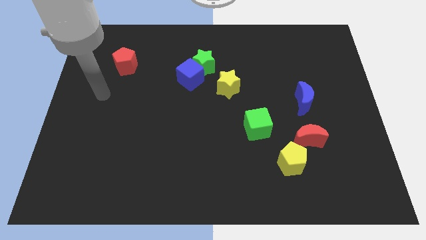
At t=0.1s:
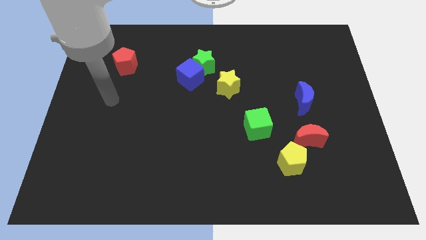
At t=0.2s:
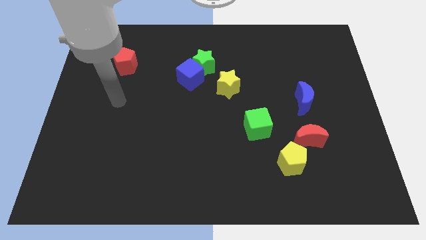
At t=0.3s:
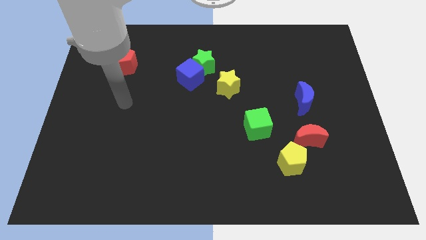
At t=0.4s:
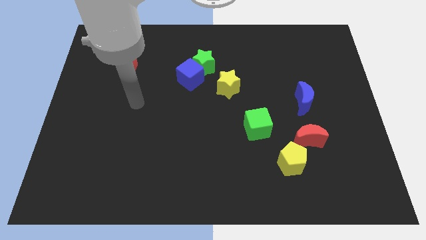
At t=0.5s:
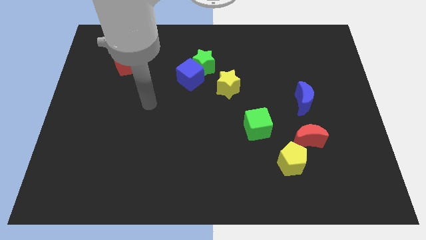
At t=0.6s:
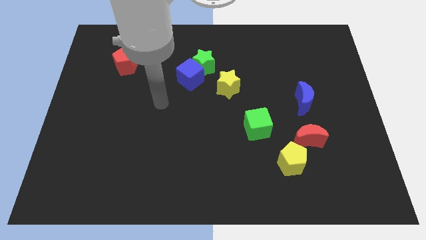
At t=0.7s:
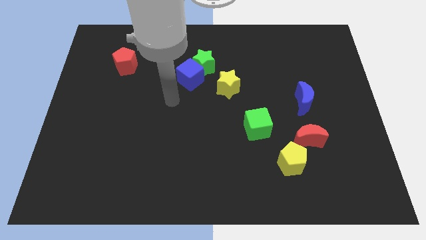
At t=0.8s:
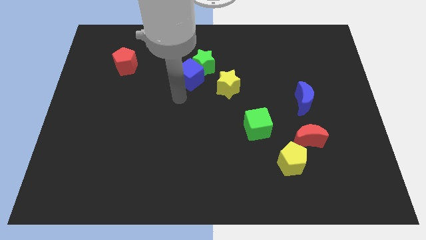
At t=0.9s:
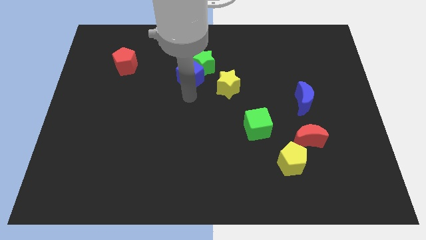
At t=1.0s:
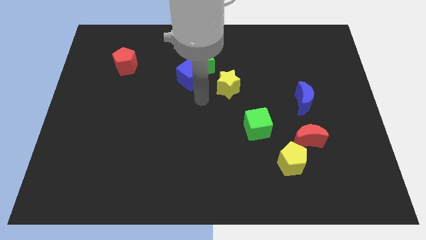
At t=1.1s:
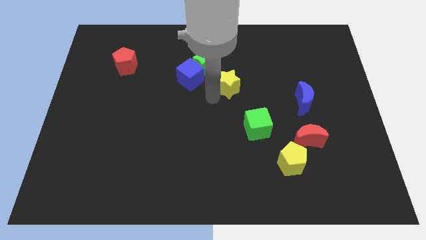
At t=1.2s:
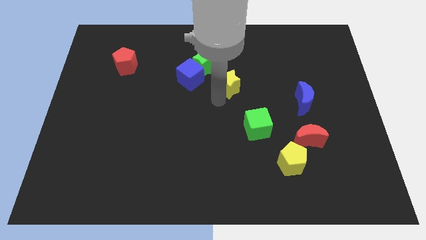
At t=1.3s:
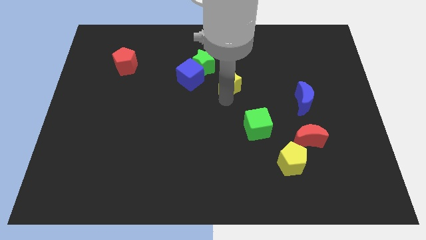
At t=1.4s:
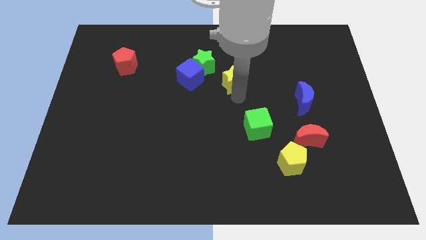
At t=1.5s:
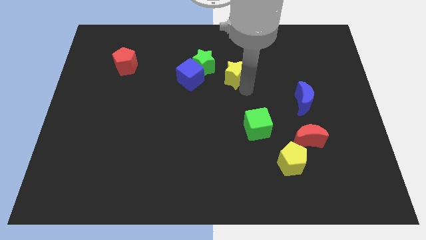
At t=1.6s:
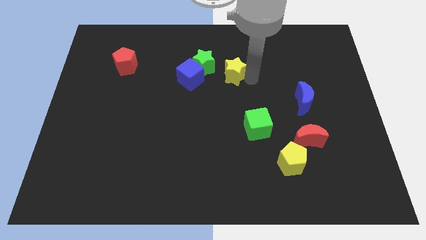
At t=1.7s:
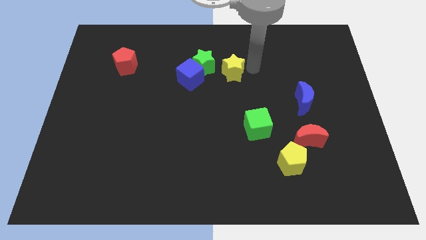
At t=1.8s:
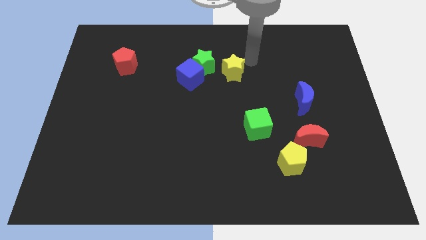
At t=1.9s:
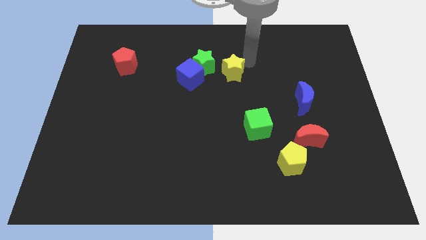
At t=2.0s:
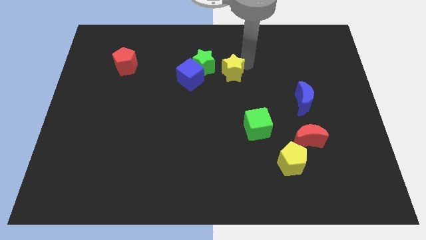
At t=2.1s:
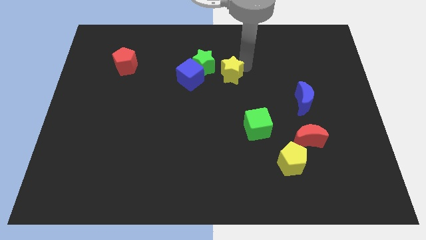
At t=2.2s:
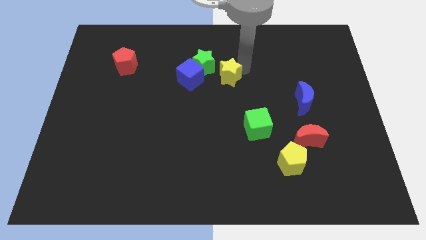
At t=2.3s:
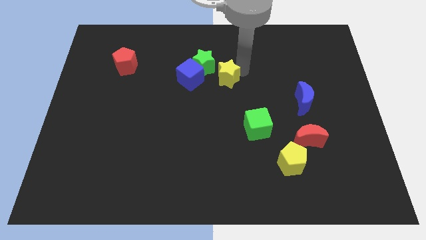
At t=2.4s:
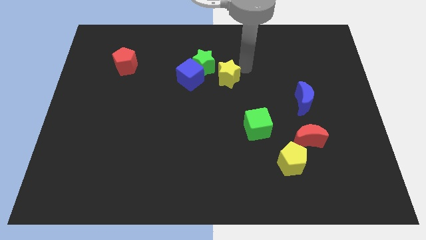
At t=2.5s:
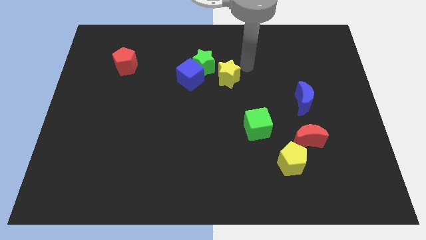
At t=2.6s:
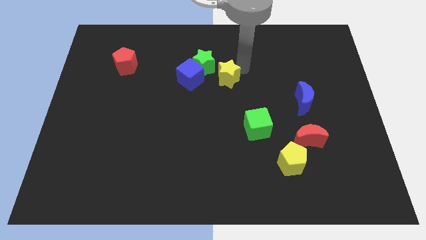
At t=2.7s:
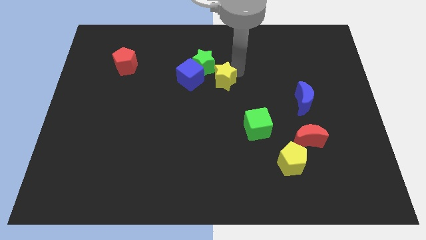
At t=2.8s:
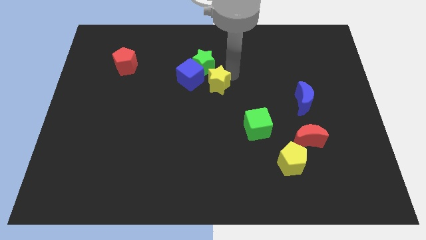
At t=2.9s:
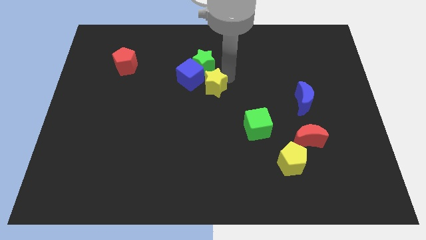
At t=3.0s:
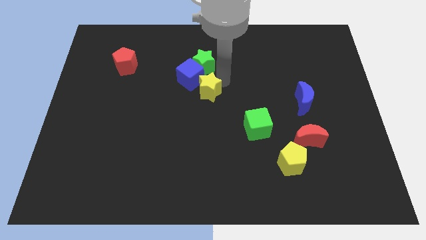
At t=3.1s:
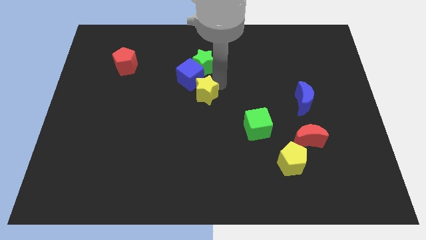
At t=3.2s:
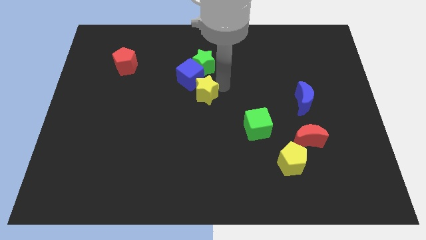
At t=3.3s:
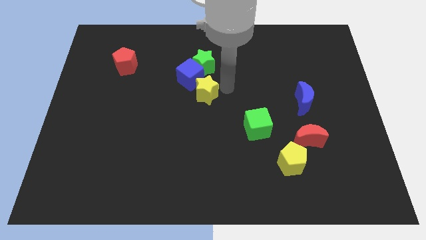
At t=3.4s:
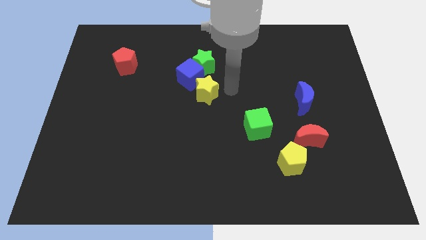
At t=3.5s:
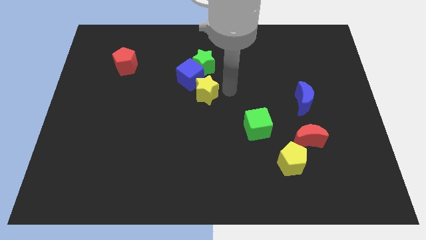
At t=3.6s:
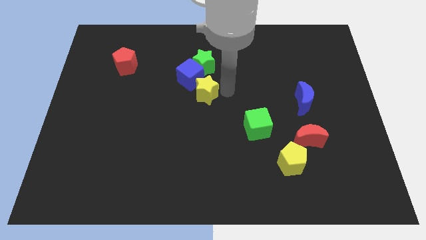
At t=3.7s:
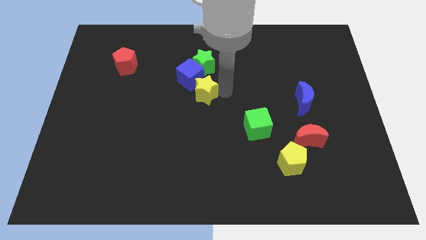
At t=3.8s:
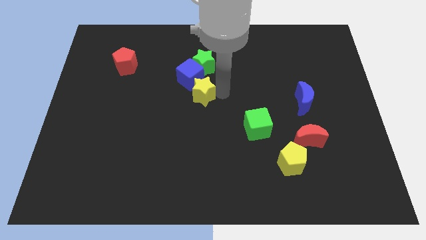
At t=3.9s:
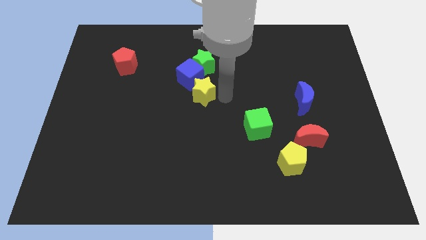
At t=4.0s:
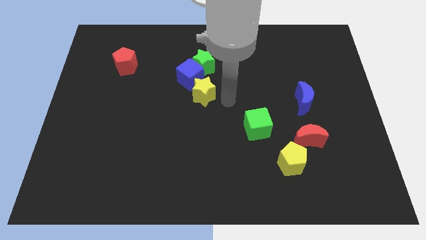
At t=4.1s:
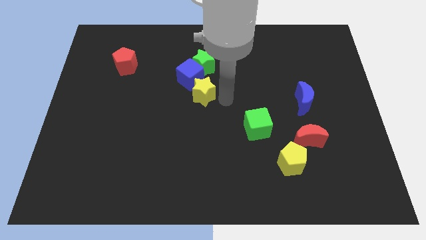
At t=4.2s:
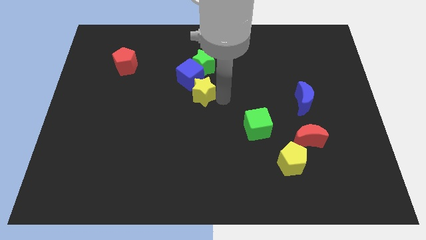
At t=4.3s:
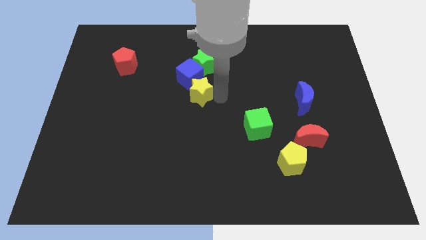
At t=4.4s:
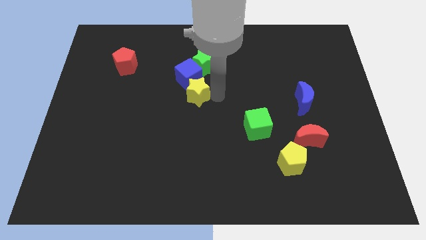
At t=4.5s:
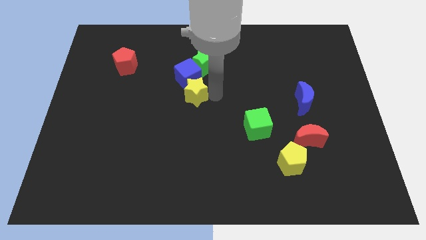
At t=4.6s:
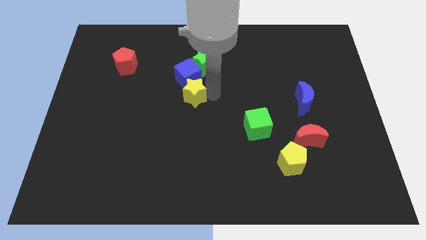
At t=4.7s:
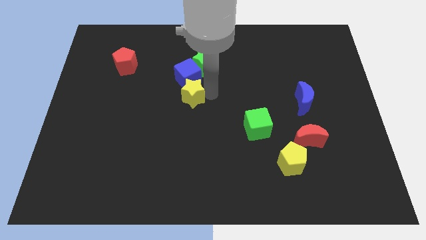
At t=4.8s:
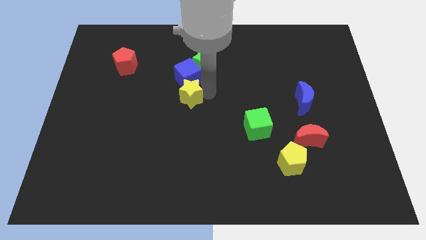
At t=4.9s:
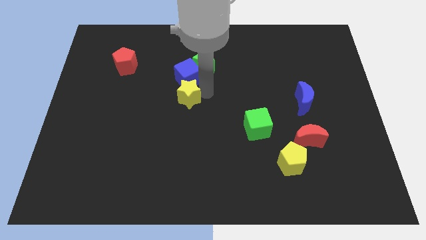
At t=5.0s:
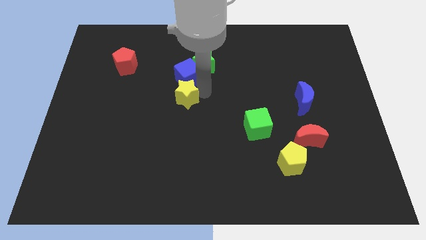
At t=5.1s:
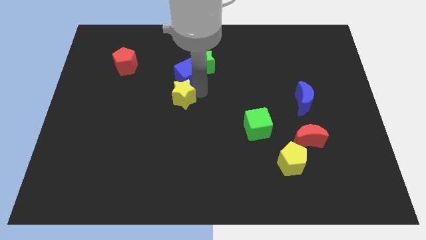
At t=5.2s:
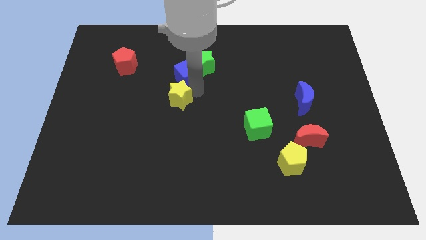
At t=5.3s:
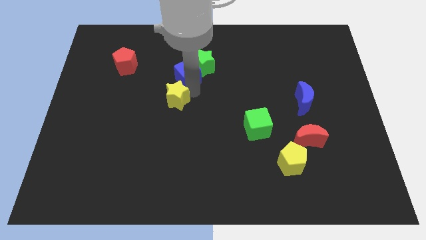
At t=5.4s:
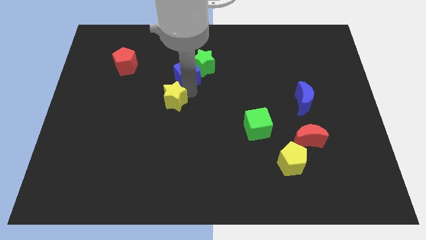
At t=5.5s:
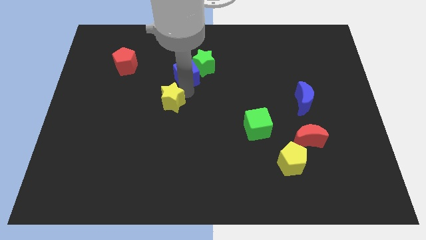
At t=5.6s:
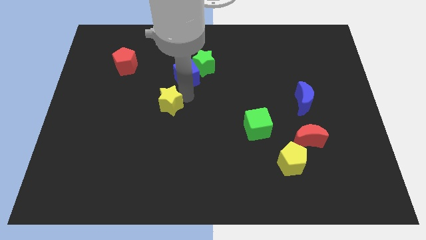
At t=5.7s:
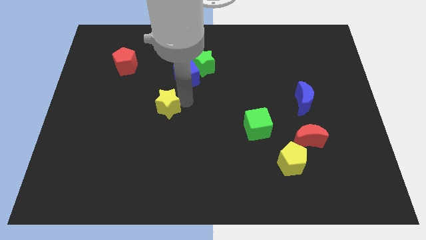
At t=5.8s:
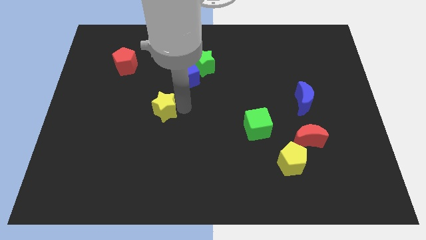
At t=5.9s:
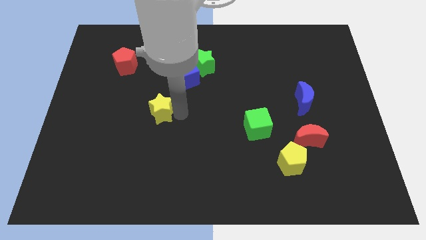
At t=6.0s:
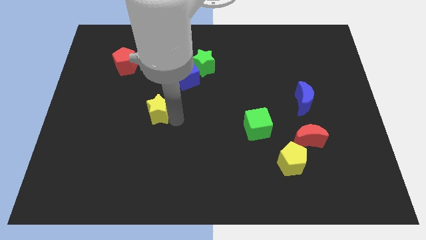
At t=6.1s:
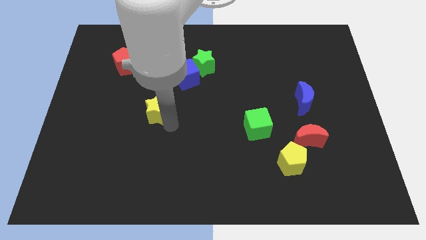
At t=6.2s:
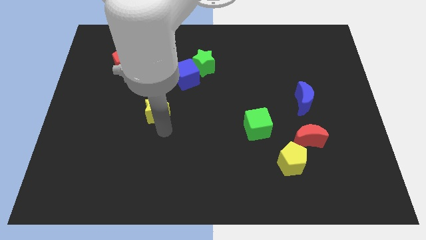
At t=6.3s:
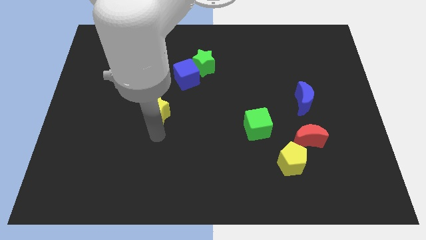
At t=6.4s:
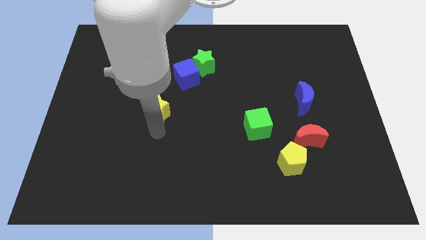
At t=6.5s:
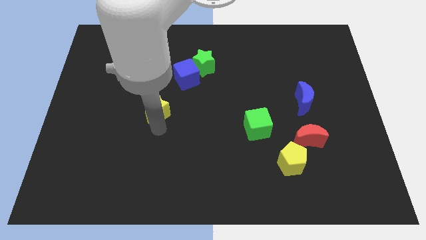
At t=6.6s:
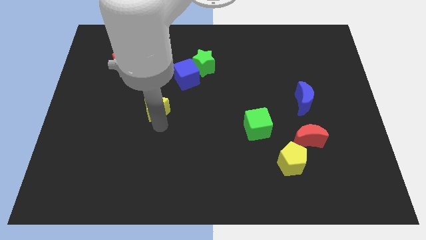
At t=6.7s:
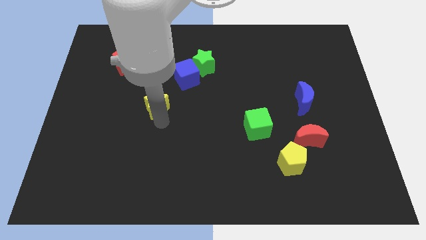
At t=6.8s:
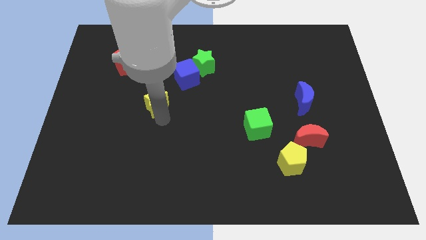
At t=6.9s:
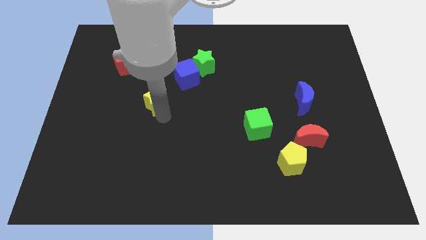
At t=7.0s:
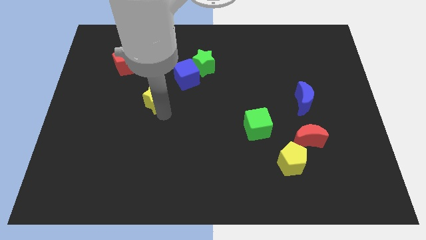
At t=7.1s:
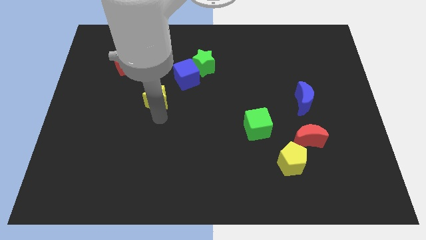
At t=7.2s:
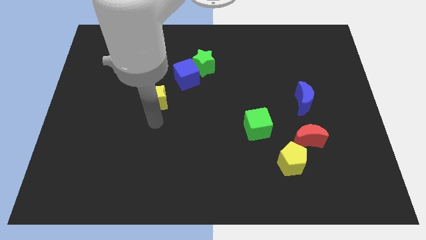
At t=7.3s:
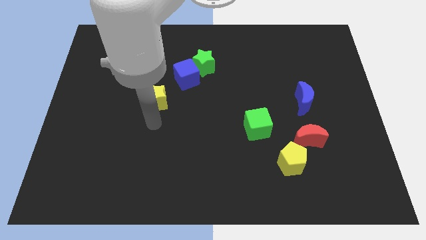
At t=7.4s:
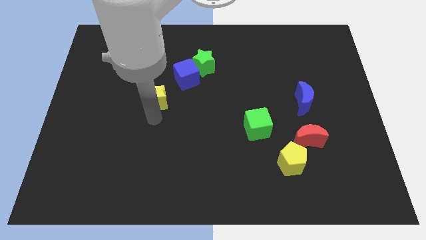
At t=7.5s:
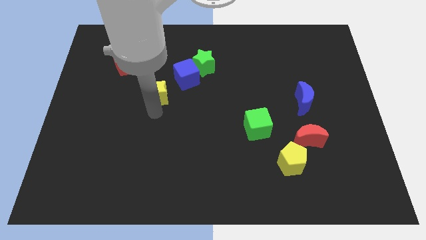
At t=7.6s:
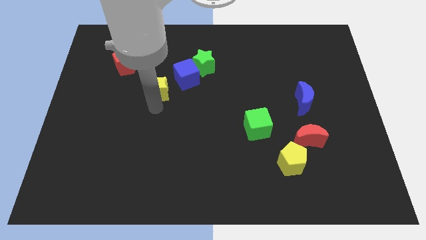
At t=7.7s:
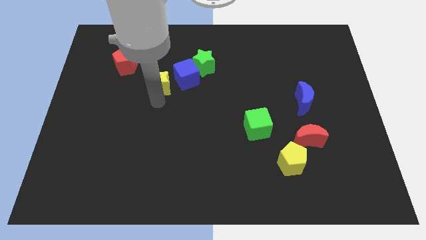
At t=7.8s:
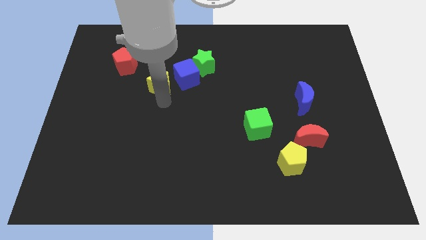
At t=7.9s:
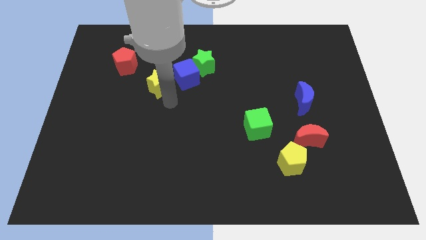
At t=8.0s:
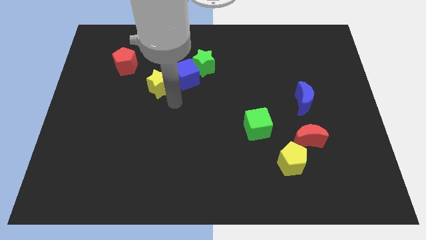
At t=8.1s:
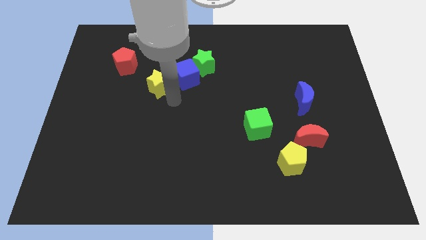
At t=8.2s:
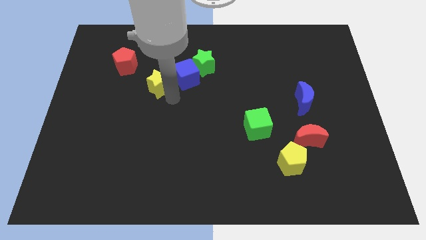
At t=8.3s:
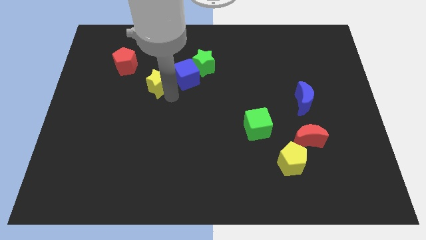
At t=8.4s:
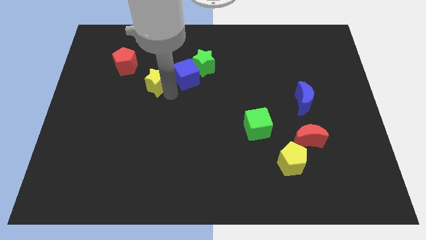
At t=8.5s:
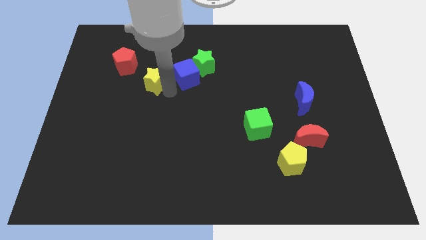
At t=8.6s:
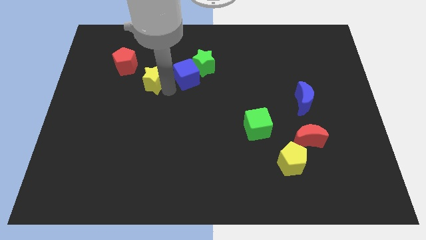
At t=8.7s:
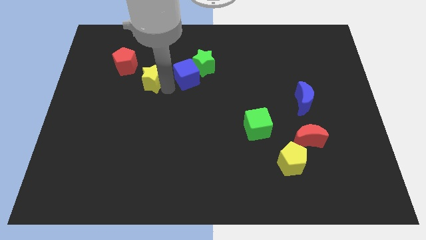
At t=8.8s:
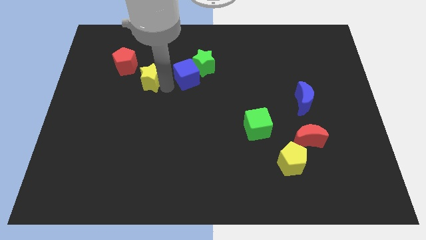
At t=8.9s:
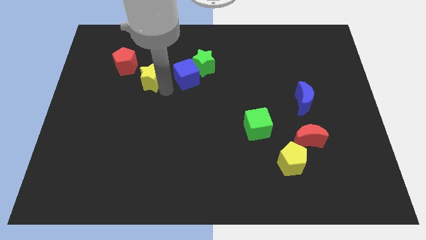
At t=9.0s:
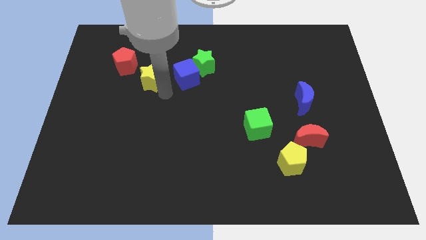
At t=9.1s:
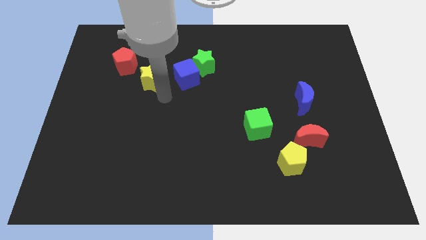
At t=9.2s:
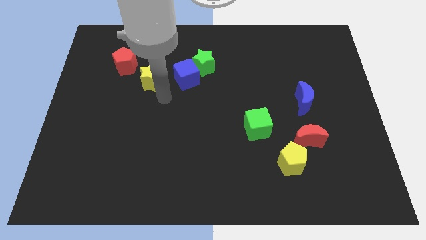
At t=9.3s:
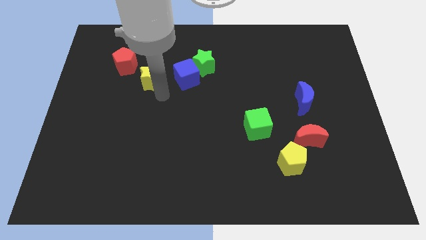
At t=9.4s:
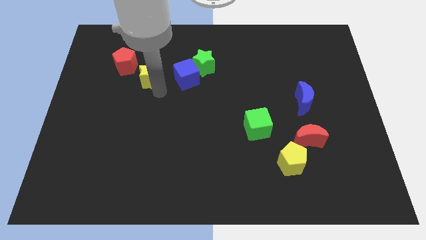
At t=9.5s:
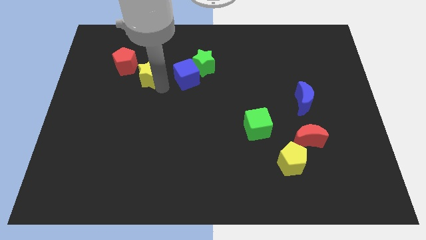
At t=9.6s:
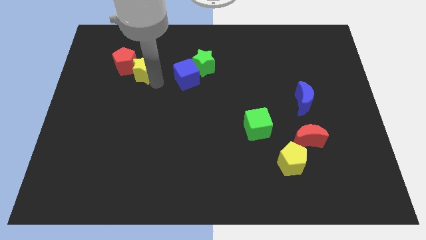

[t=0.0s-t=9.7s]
put the yellow star towards the red pentagon
